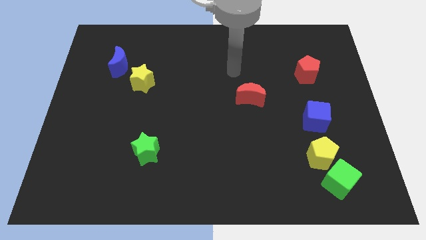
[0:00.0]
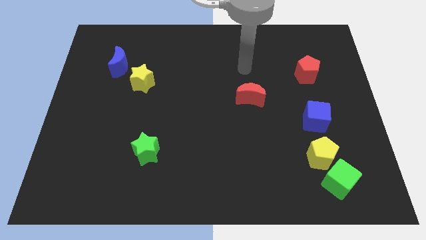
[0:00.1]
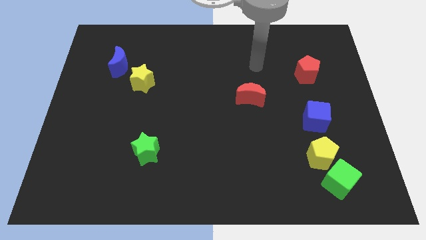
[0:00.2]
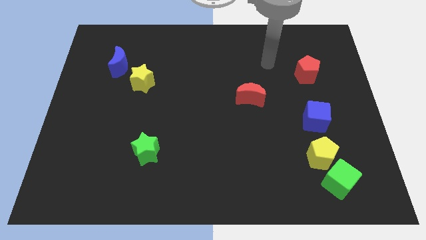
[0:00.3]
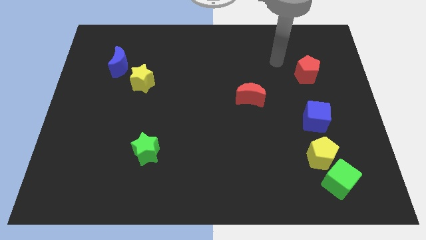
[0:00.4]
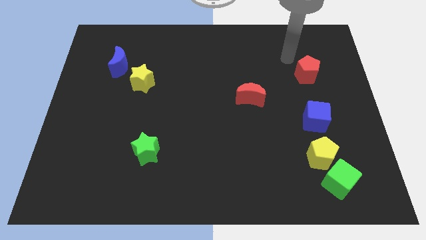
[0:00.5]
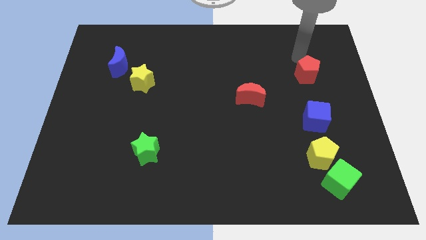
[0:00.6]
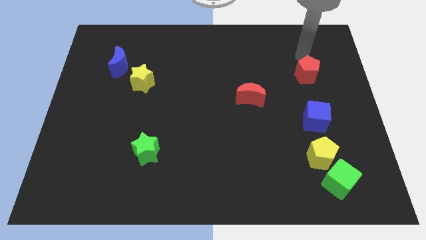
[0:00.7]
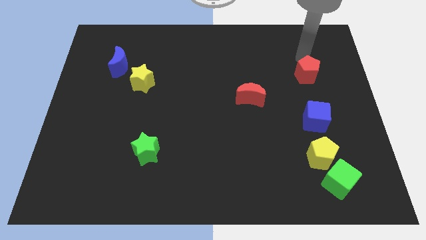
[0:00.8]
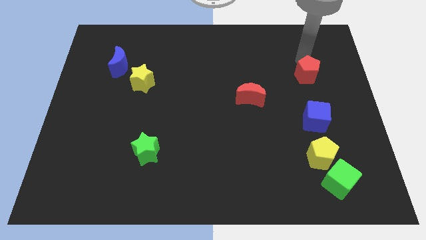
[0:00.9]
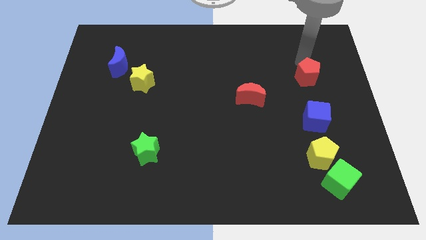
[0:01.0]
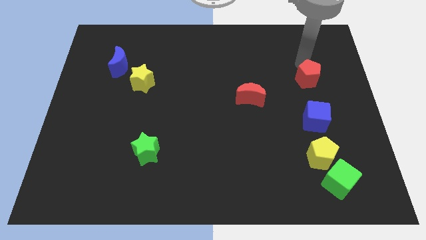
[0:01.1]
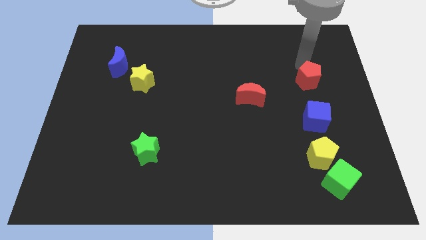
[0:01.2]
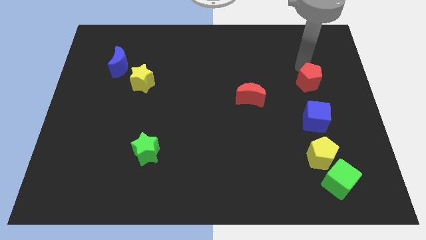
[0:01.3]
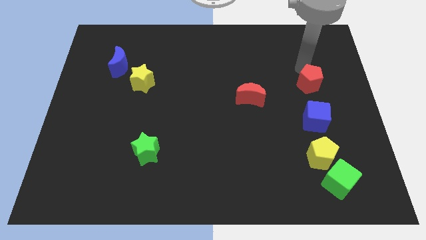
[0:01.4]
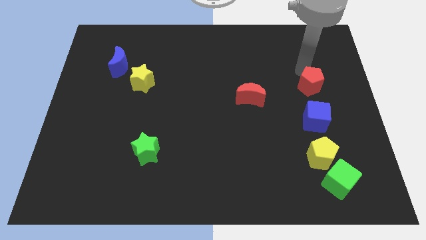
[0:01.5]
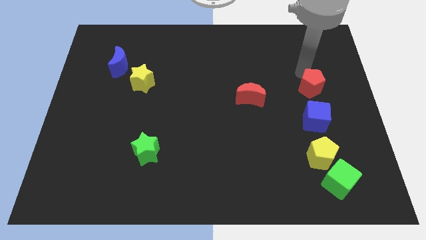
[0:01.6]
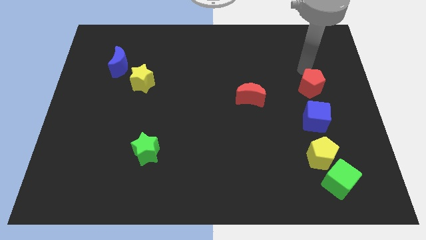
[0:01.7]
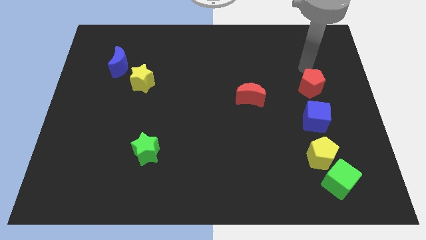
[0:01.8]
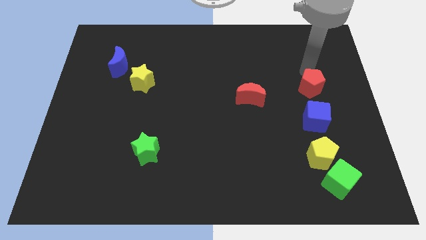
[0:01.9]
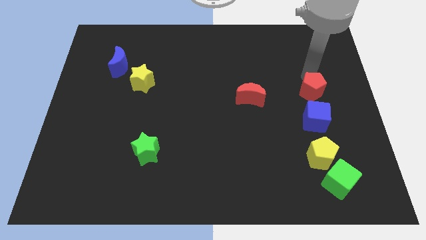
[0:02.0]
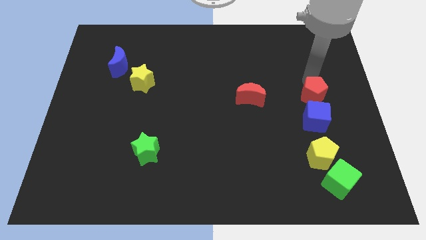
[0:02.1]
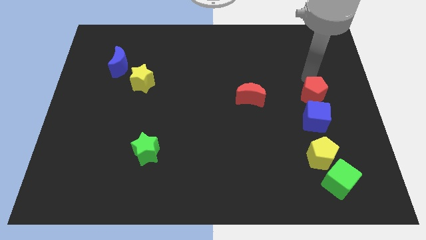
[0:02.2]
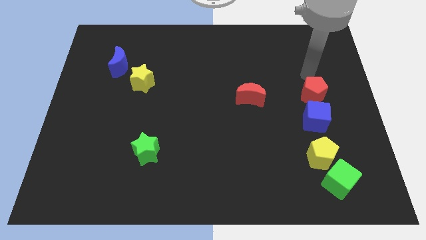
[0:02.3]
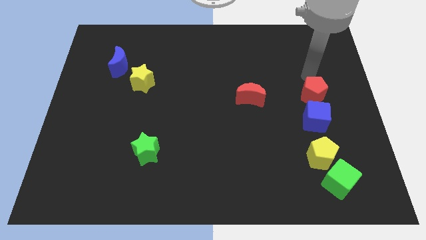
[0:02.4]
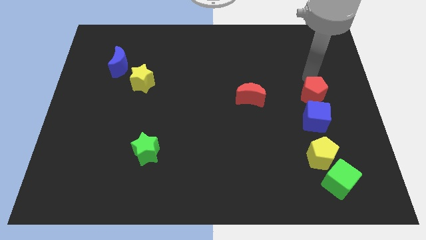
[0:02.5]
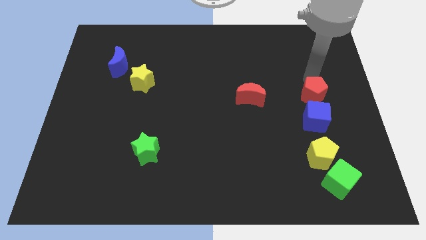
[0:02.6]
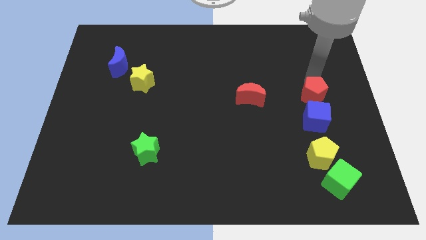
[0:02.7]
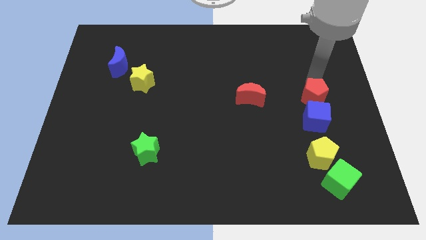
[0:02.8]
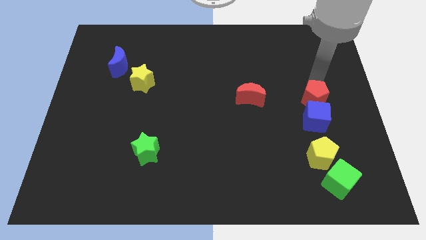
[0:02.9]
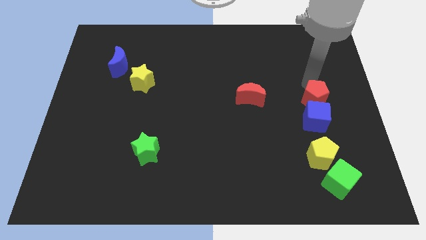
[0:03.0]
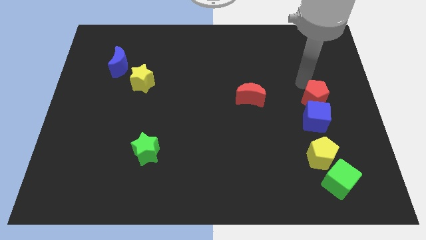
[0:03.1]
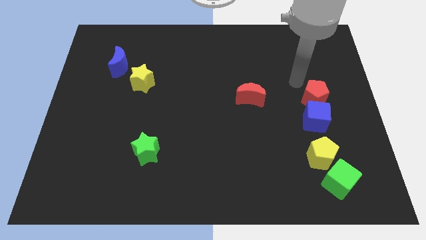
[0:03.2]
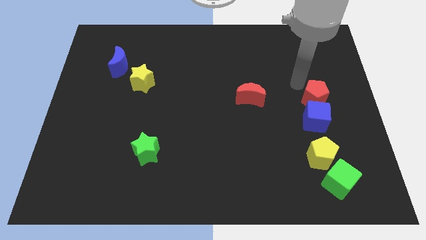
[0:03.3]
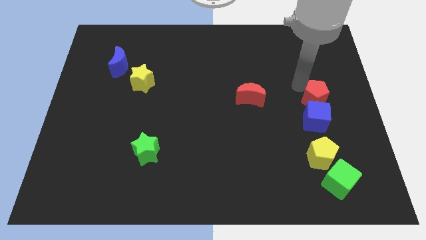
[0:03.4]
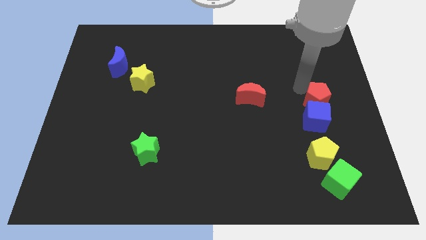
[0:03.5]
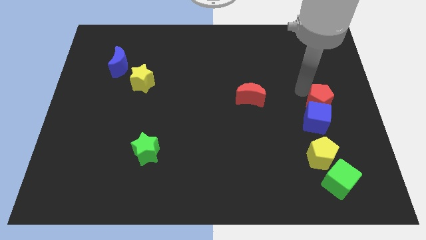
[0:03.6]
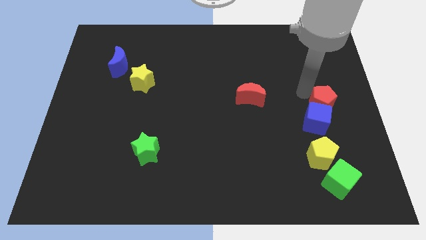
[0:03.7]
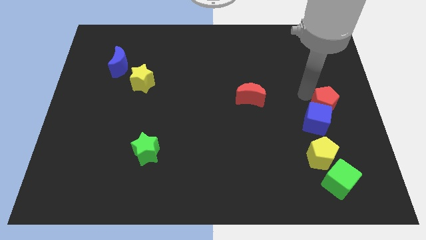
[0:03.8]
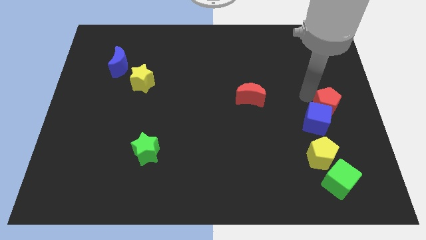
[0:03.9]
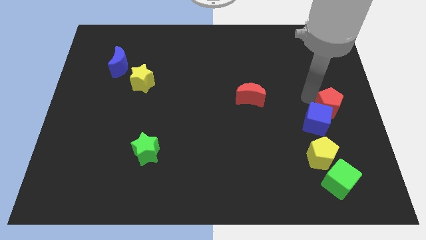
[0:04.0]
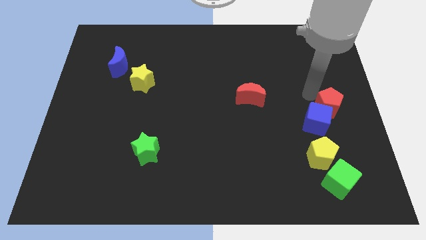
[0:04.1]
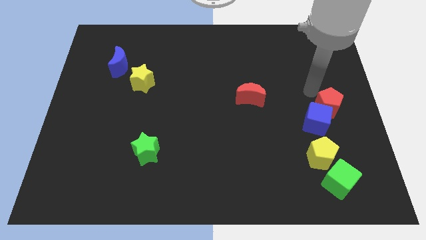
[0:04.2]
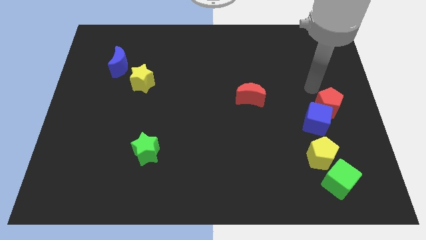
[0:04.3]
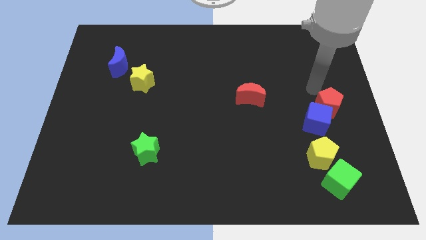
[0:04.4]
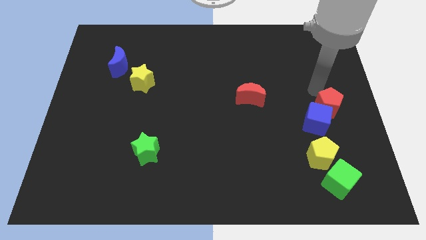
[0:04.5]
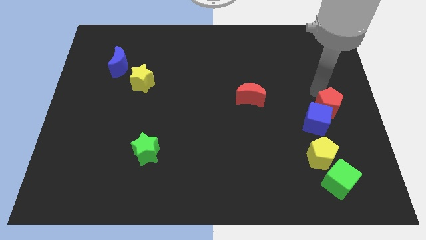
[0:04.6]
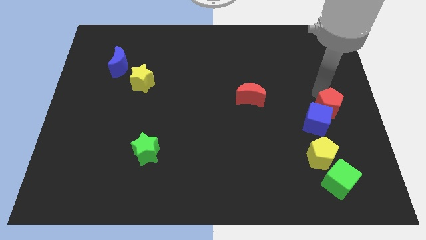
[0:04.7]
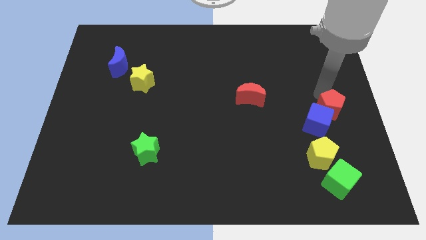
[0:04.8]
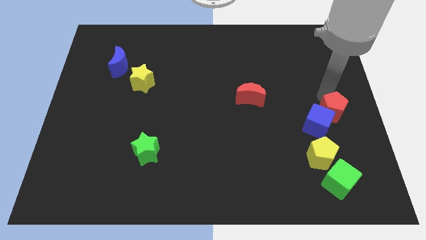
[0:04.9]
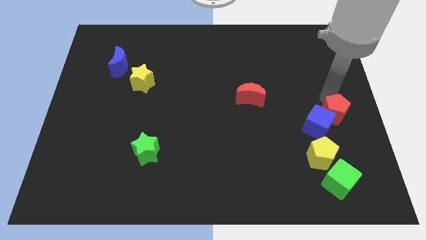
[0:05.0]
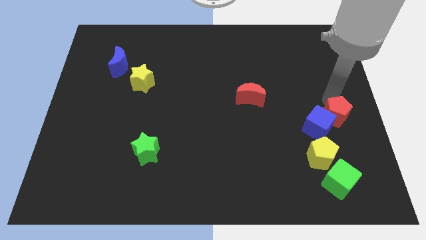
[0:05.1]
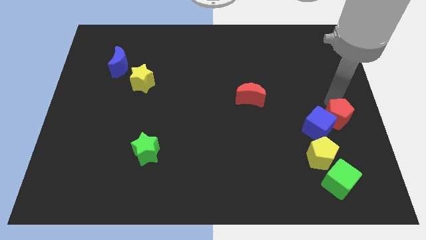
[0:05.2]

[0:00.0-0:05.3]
push the red pentagon to the top right side of the yellow pentagon

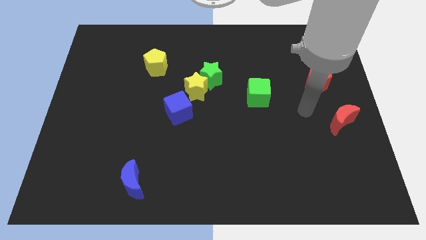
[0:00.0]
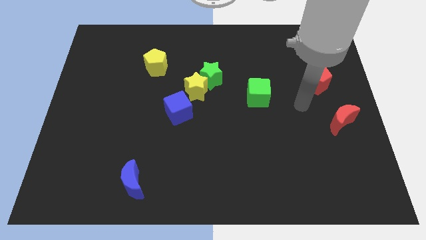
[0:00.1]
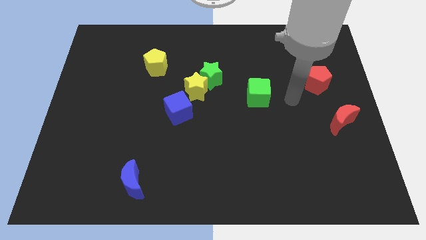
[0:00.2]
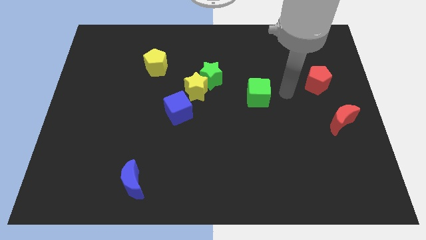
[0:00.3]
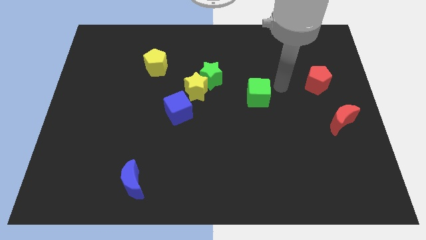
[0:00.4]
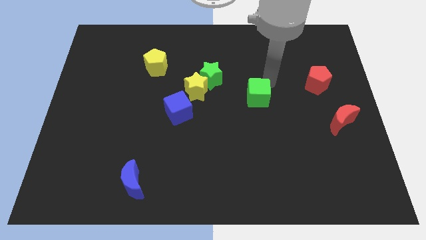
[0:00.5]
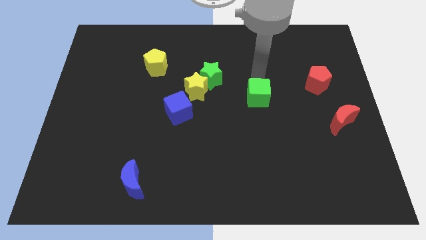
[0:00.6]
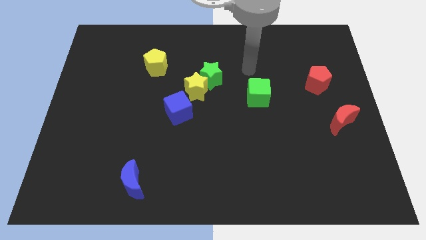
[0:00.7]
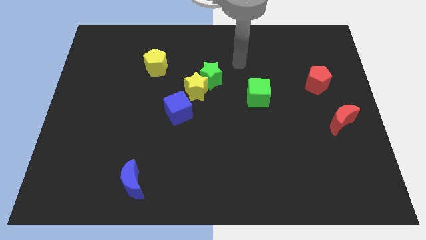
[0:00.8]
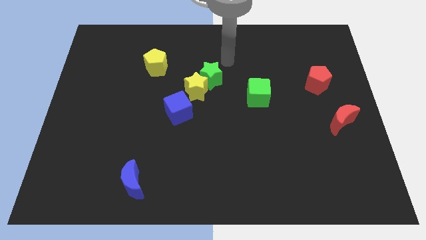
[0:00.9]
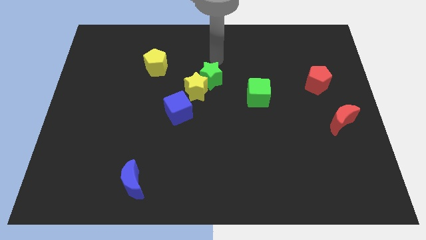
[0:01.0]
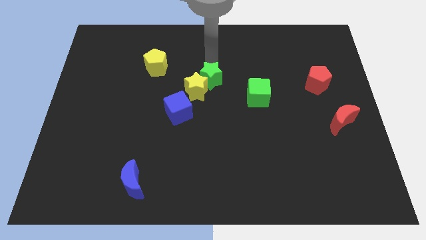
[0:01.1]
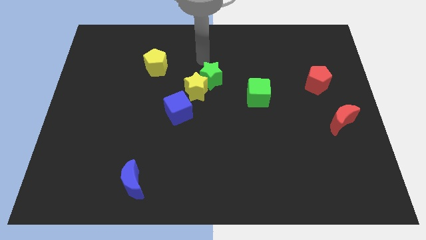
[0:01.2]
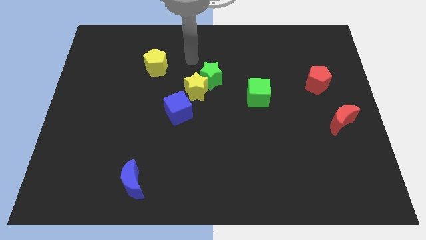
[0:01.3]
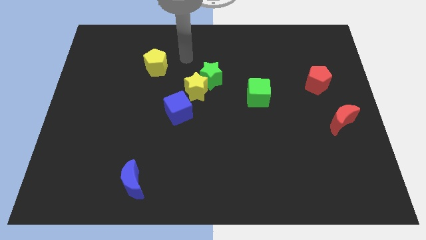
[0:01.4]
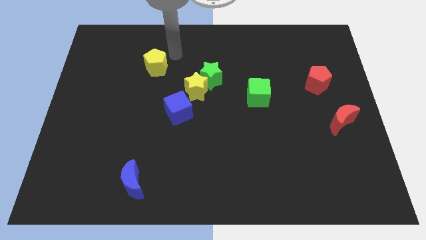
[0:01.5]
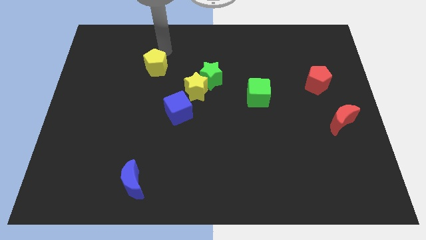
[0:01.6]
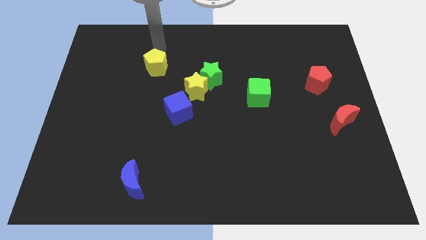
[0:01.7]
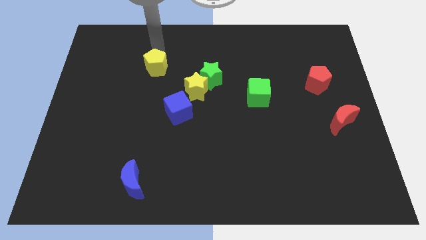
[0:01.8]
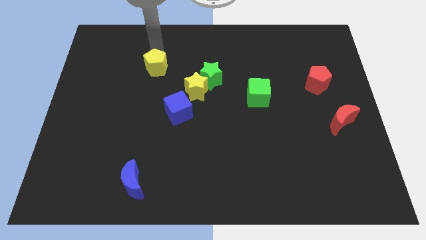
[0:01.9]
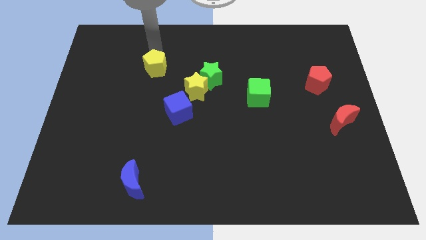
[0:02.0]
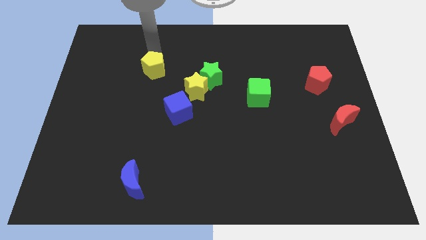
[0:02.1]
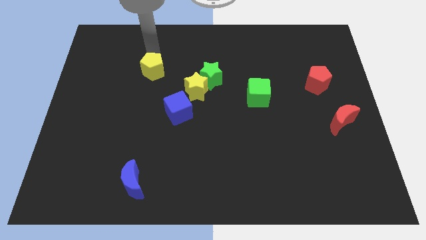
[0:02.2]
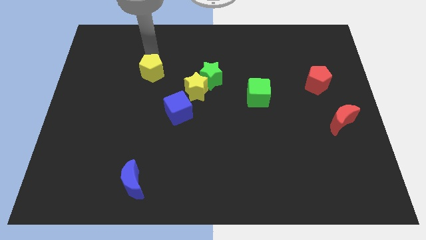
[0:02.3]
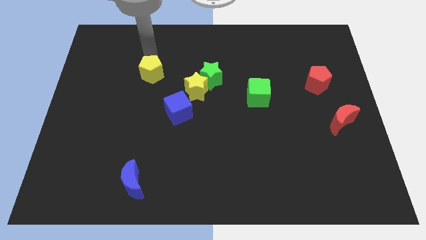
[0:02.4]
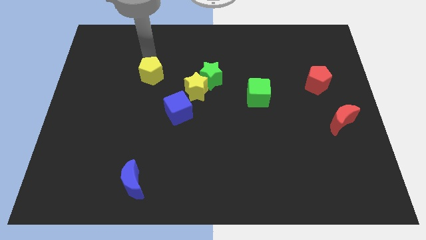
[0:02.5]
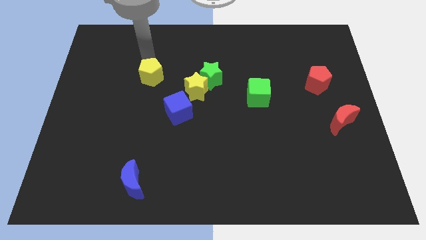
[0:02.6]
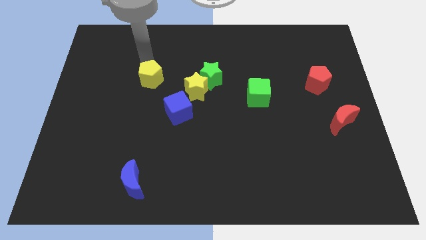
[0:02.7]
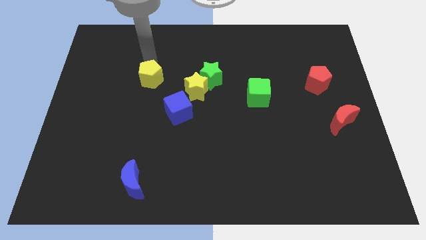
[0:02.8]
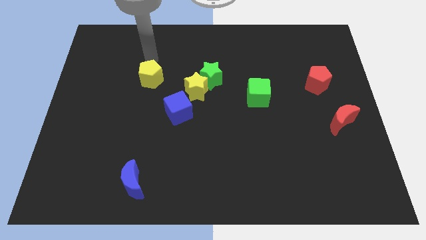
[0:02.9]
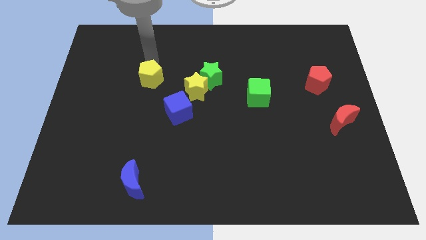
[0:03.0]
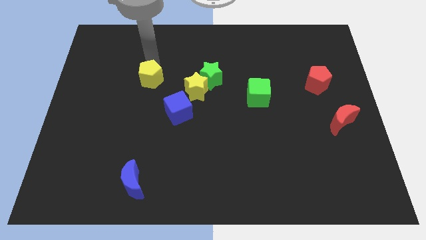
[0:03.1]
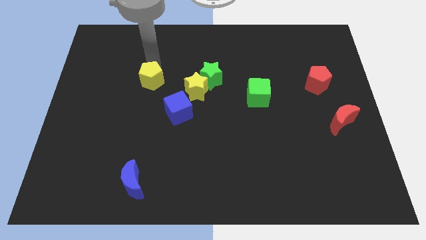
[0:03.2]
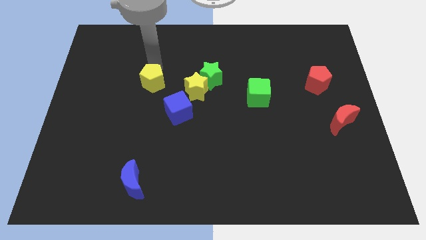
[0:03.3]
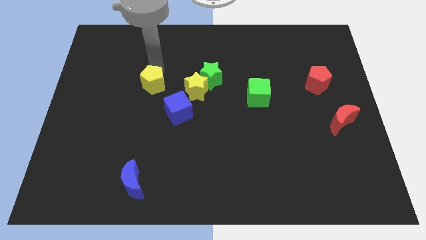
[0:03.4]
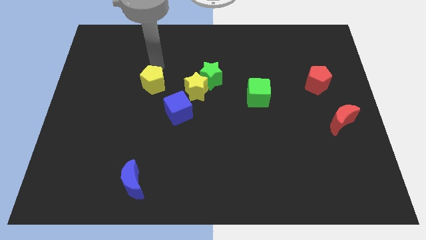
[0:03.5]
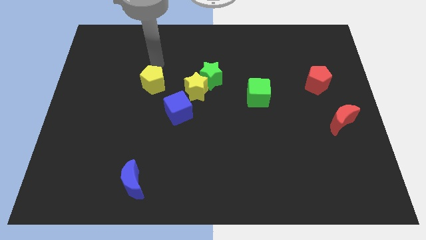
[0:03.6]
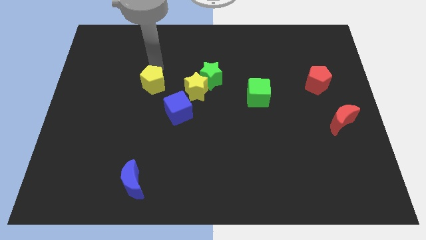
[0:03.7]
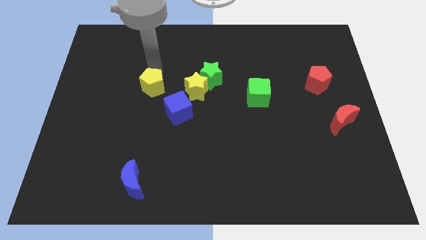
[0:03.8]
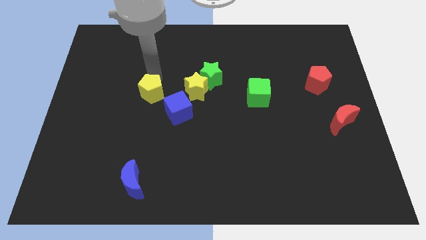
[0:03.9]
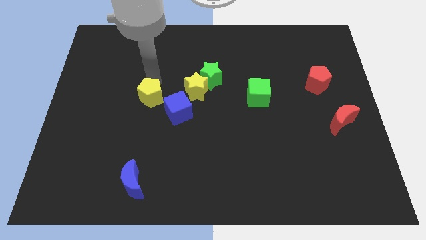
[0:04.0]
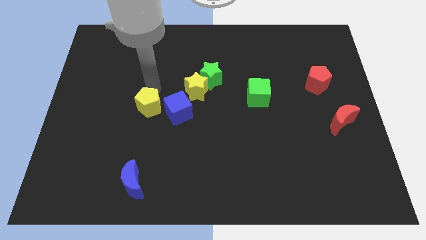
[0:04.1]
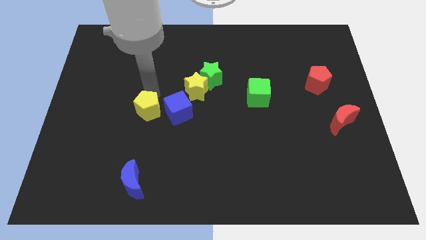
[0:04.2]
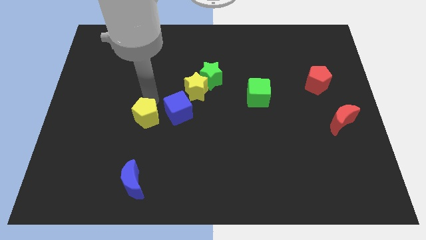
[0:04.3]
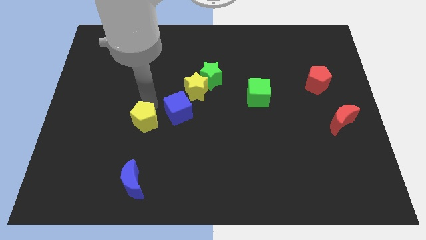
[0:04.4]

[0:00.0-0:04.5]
put the yellow pentagon to the top of the blue moon
